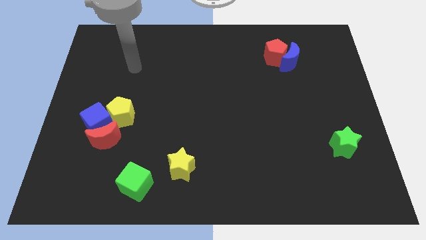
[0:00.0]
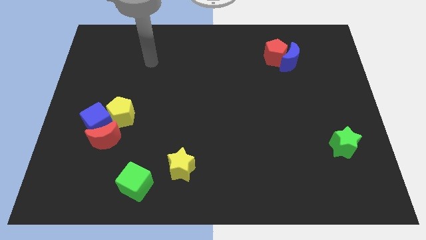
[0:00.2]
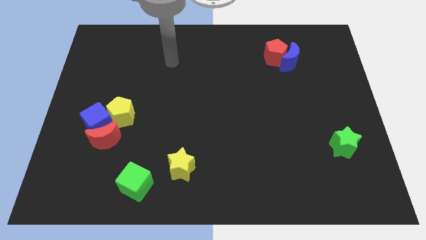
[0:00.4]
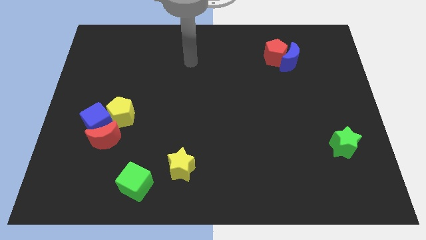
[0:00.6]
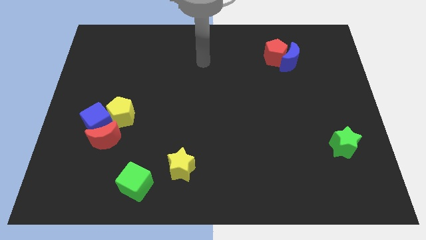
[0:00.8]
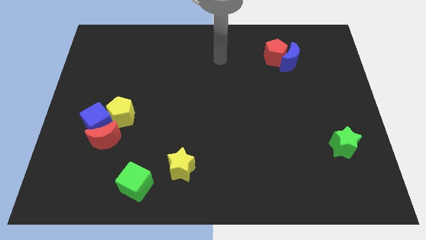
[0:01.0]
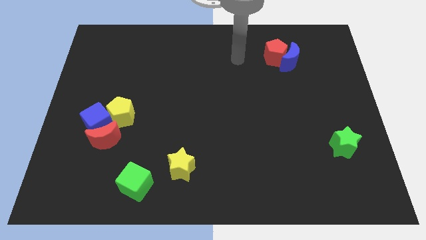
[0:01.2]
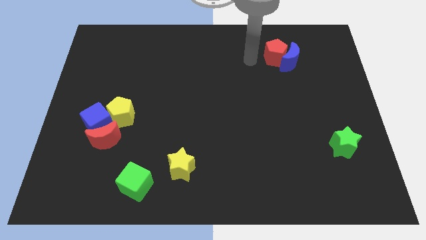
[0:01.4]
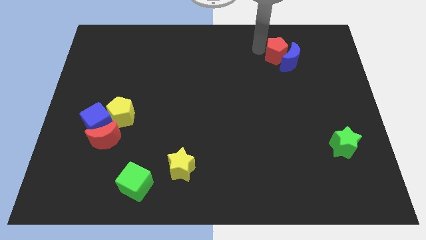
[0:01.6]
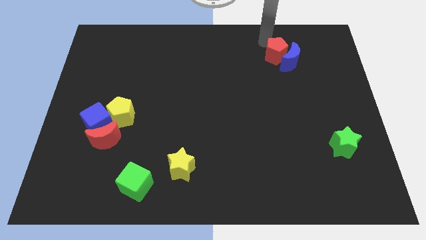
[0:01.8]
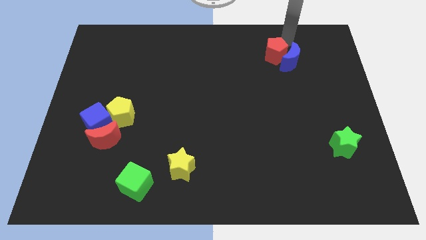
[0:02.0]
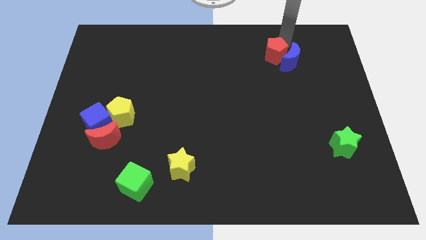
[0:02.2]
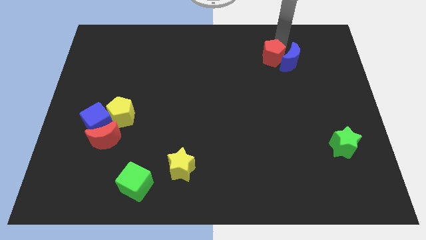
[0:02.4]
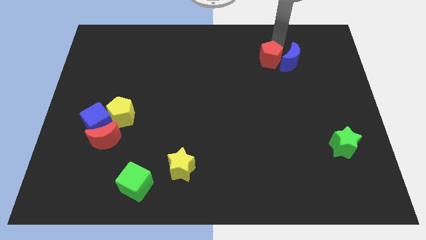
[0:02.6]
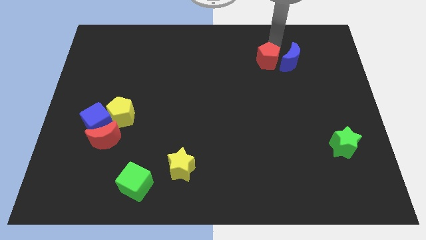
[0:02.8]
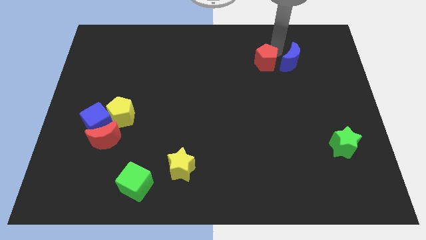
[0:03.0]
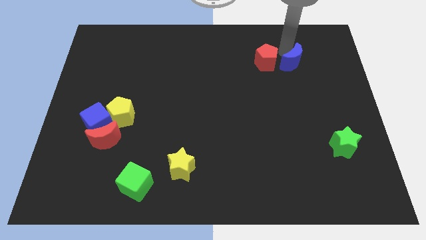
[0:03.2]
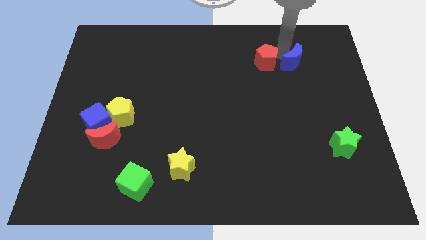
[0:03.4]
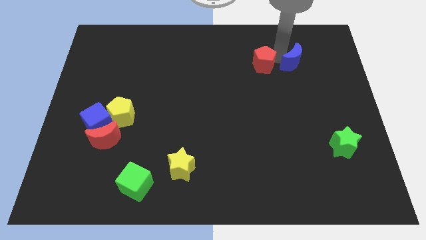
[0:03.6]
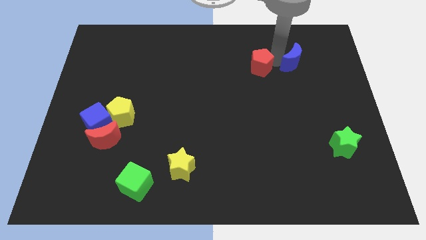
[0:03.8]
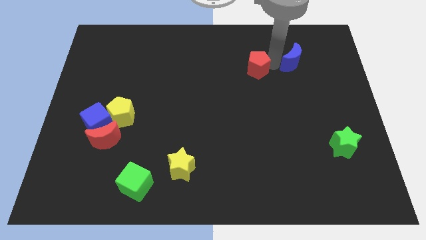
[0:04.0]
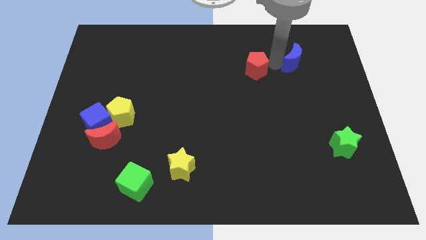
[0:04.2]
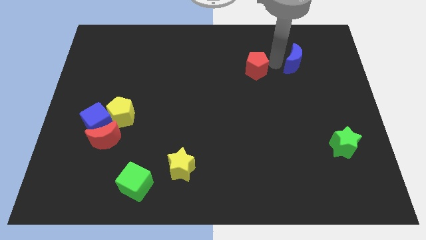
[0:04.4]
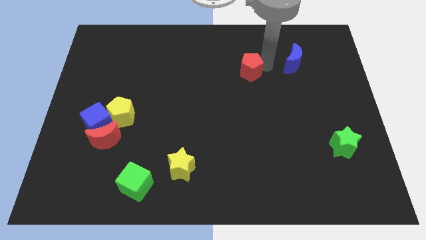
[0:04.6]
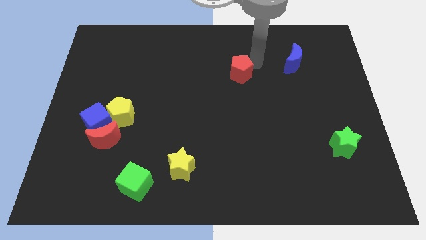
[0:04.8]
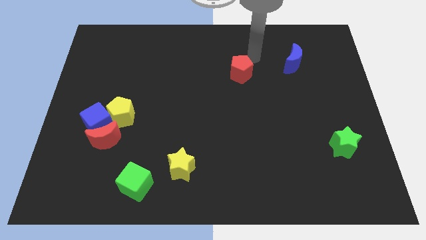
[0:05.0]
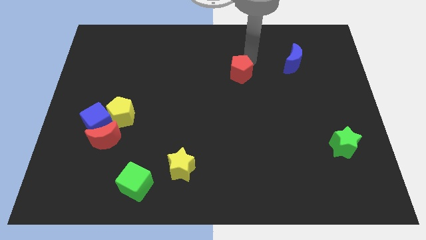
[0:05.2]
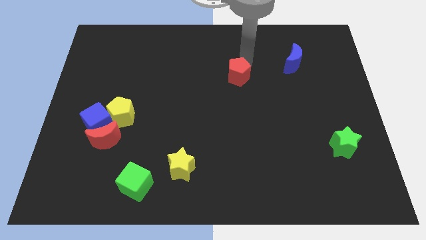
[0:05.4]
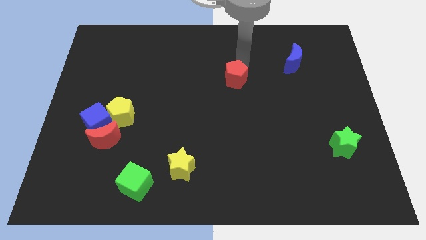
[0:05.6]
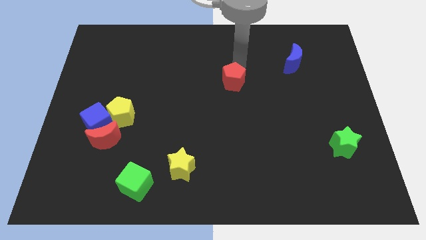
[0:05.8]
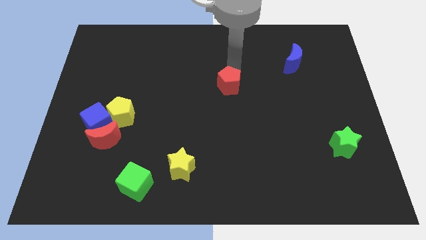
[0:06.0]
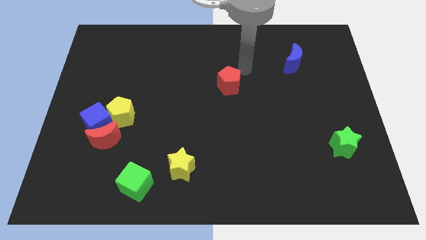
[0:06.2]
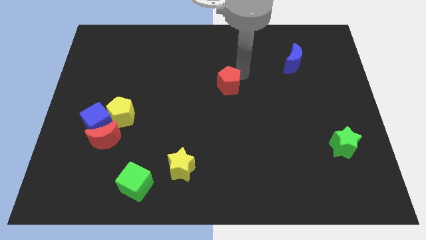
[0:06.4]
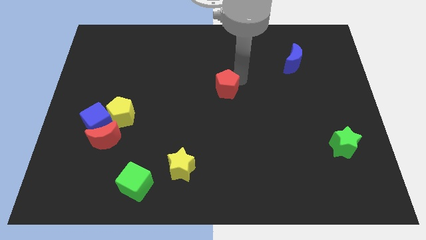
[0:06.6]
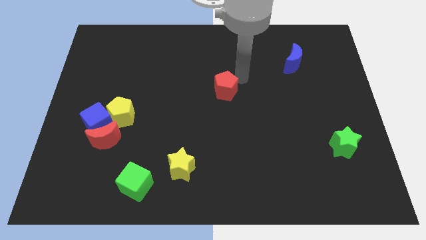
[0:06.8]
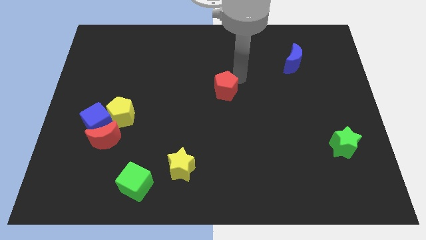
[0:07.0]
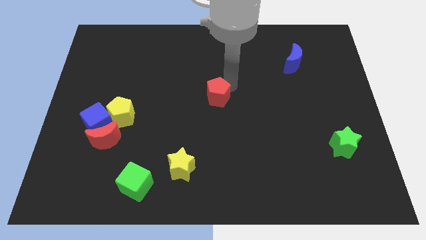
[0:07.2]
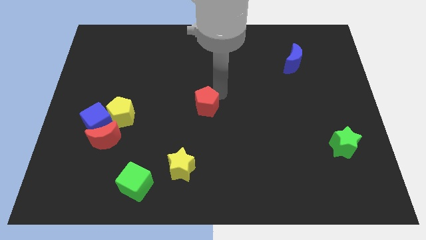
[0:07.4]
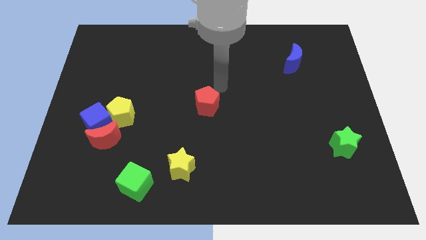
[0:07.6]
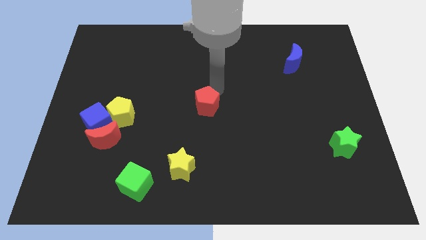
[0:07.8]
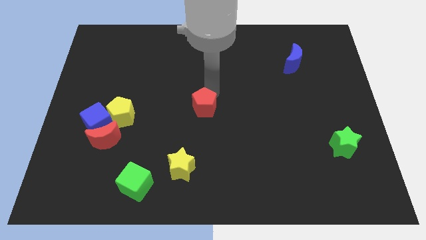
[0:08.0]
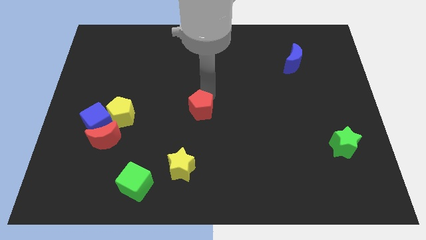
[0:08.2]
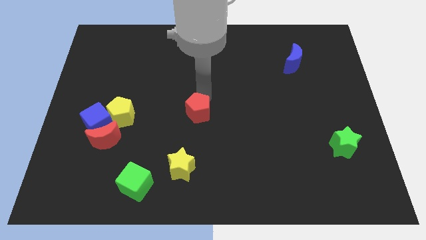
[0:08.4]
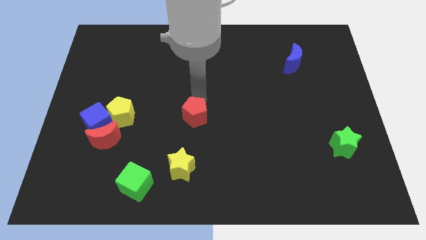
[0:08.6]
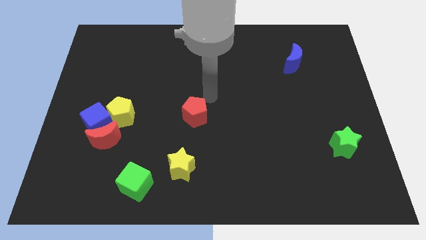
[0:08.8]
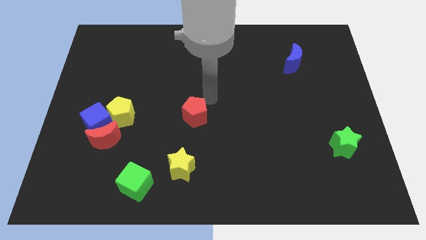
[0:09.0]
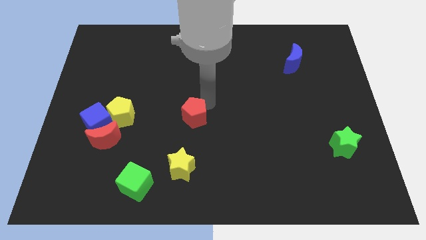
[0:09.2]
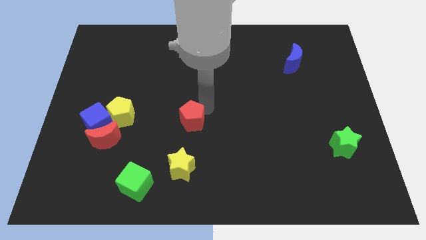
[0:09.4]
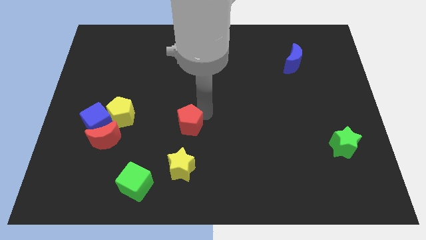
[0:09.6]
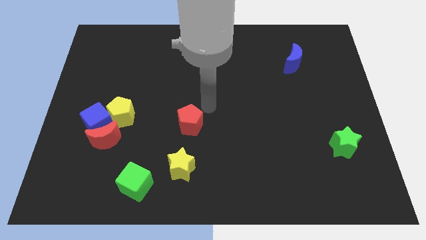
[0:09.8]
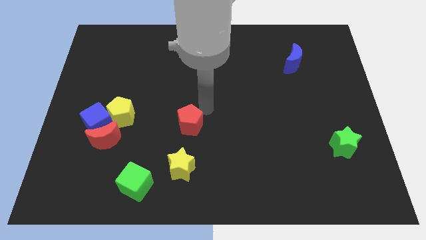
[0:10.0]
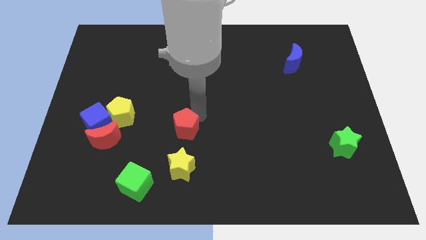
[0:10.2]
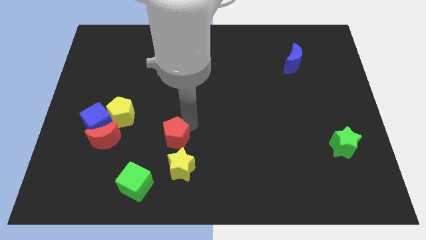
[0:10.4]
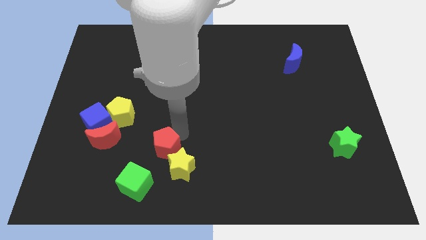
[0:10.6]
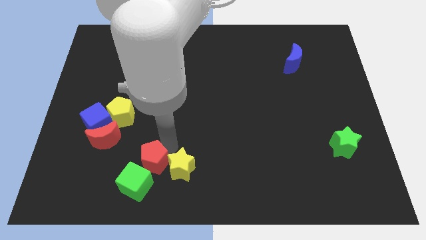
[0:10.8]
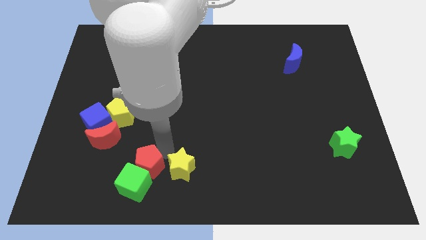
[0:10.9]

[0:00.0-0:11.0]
push the red pentagon close to the green cube

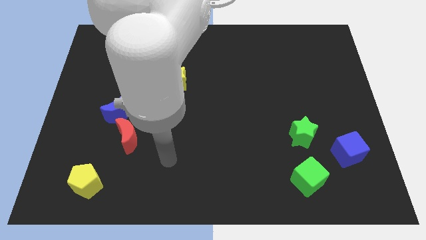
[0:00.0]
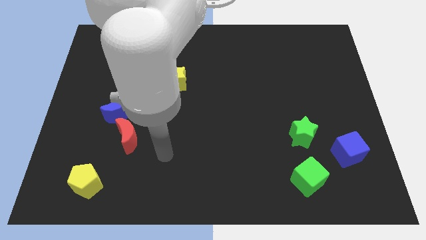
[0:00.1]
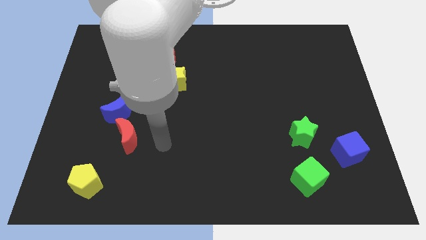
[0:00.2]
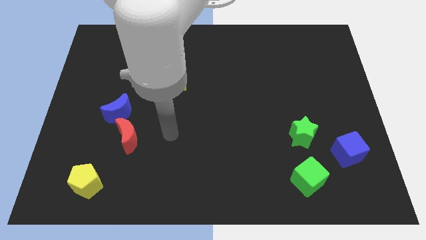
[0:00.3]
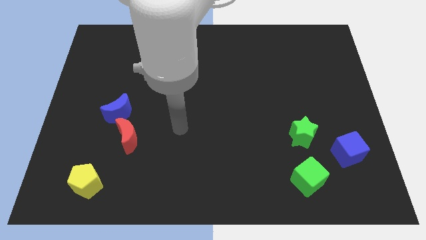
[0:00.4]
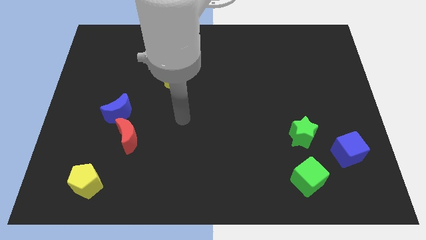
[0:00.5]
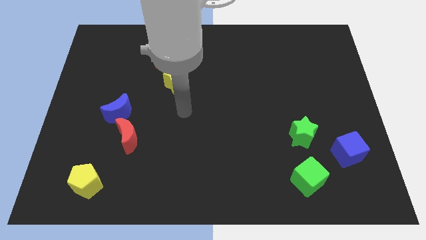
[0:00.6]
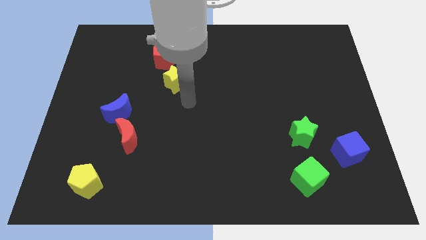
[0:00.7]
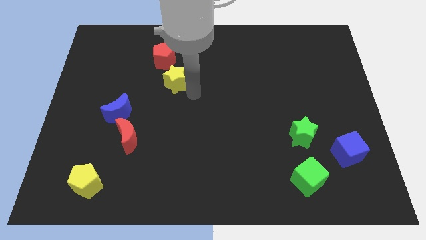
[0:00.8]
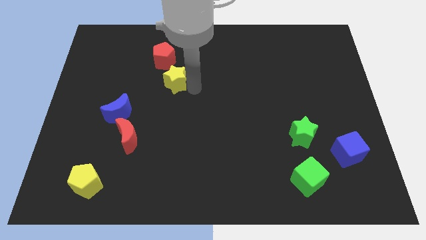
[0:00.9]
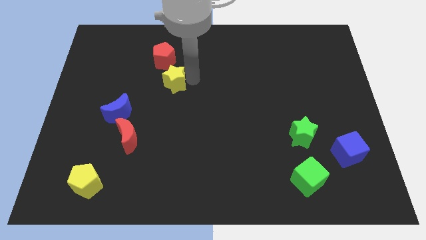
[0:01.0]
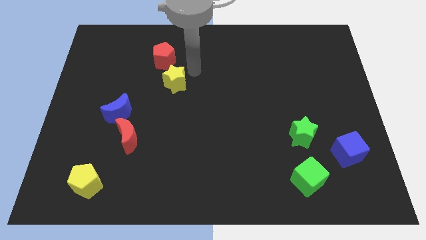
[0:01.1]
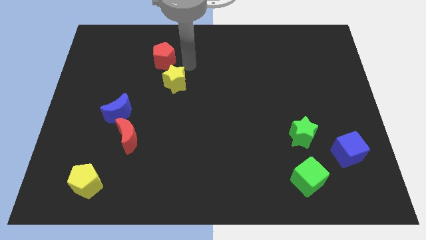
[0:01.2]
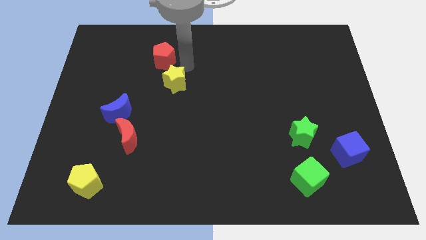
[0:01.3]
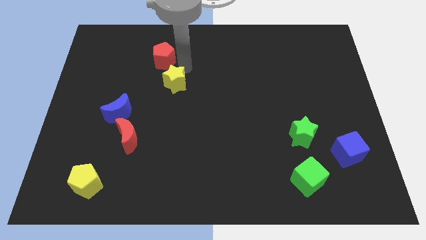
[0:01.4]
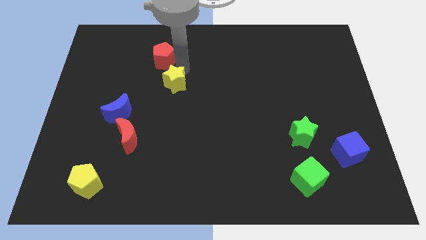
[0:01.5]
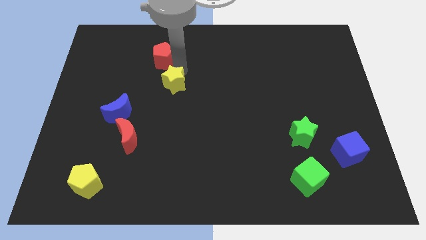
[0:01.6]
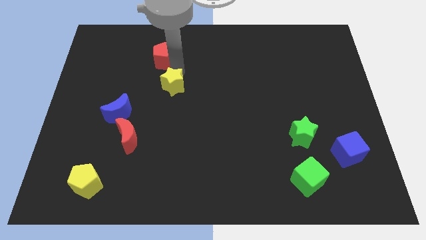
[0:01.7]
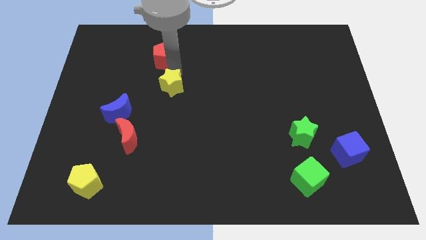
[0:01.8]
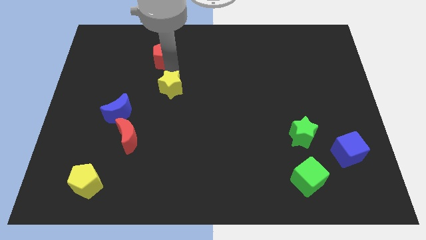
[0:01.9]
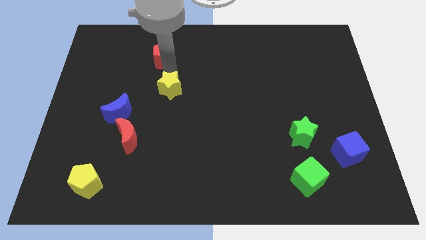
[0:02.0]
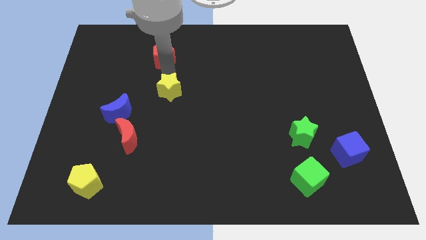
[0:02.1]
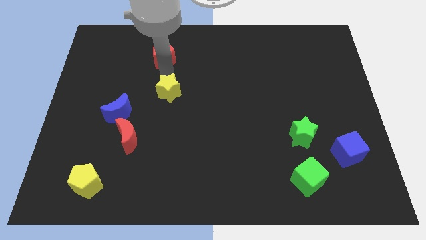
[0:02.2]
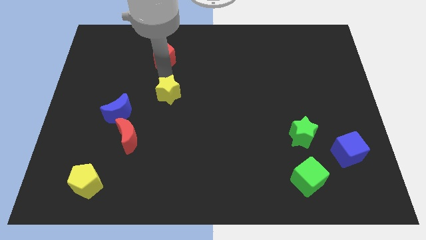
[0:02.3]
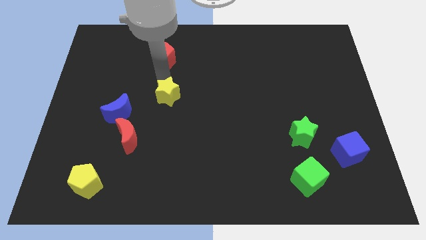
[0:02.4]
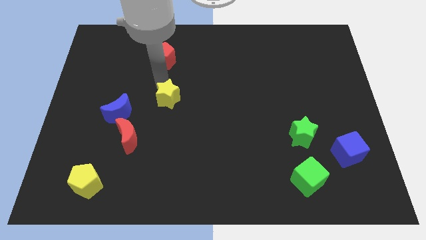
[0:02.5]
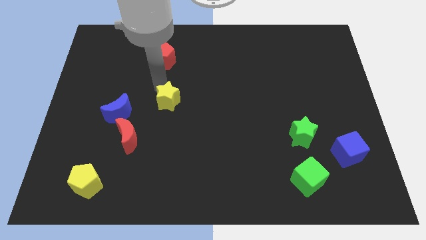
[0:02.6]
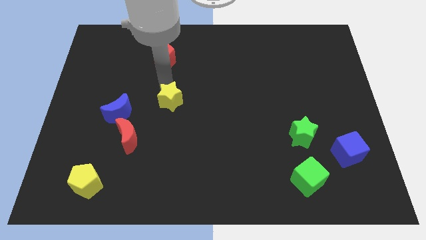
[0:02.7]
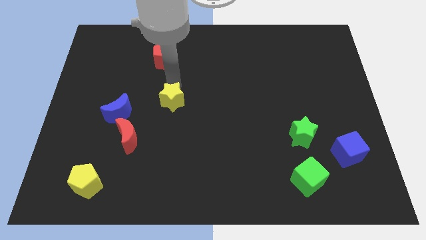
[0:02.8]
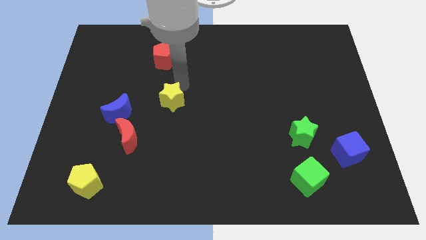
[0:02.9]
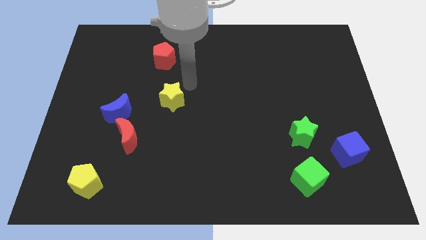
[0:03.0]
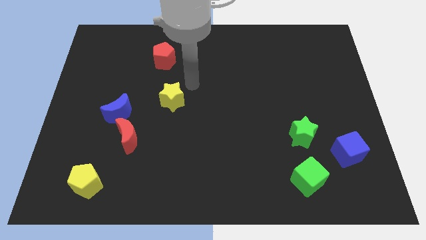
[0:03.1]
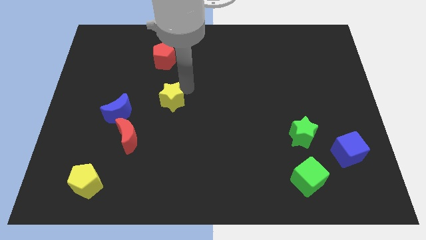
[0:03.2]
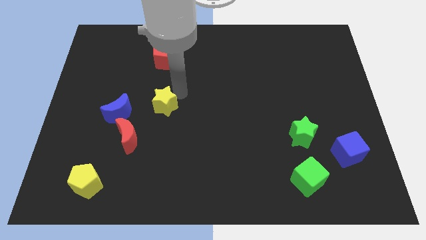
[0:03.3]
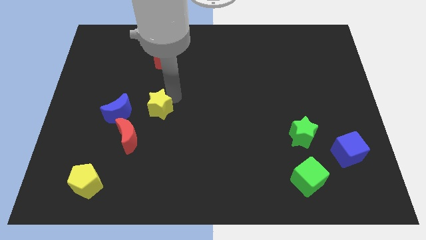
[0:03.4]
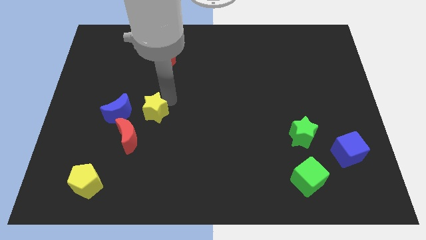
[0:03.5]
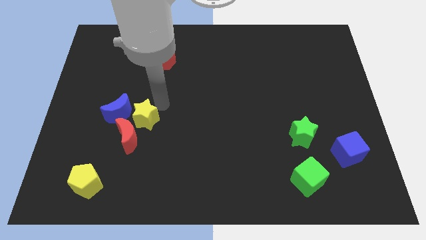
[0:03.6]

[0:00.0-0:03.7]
put the yellow star close to the red moon
